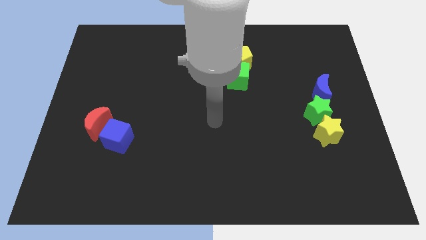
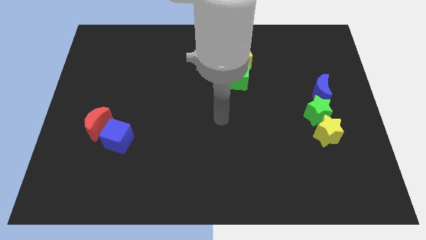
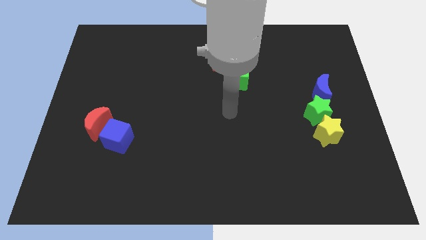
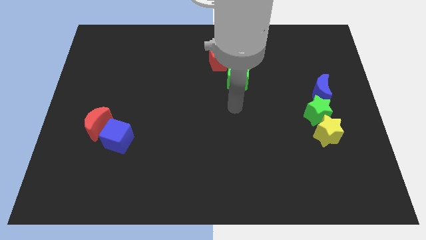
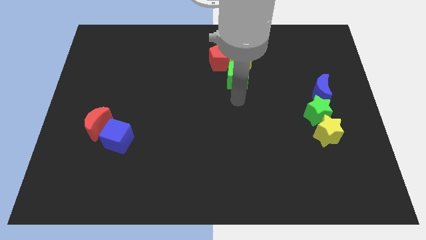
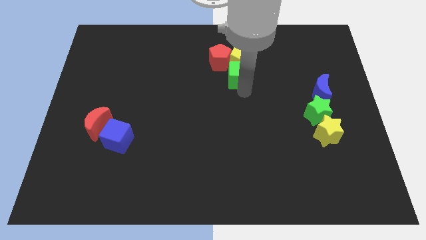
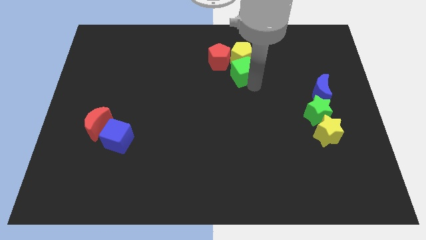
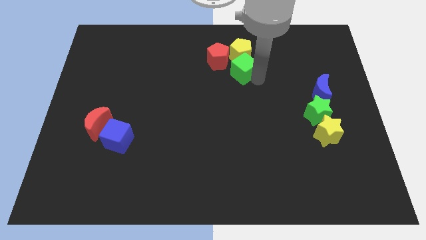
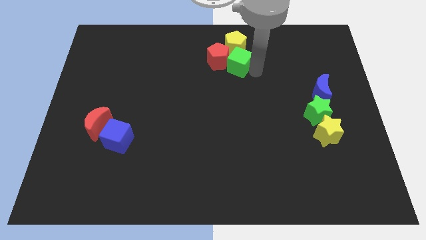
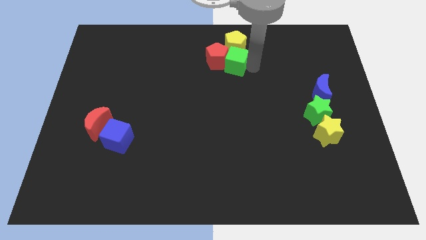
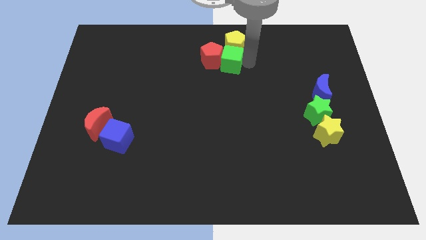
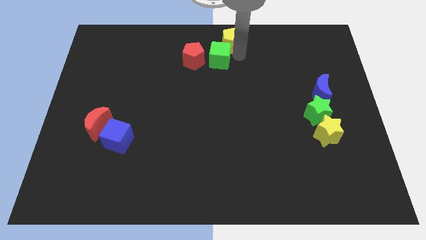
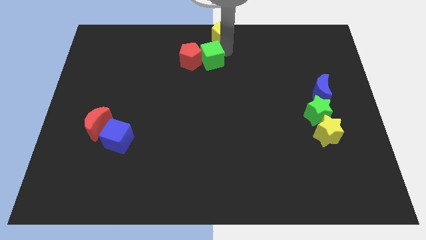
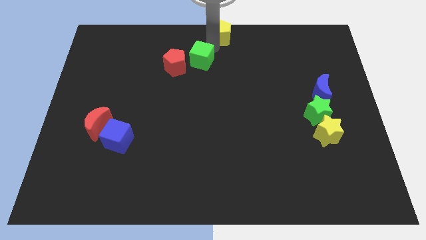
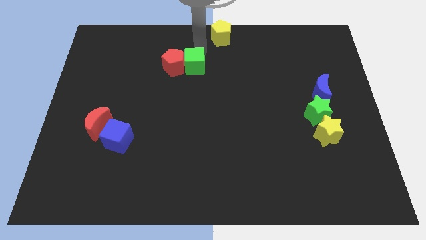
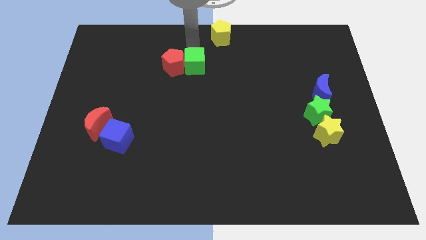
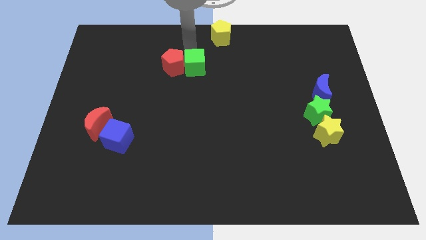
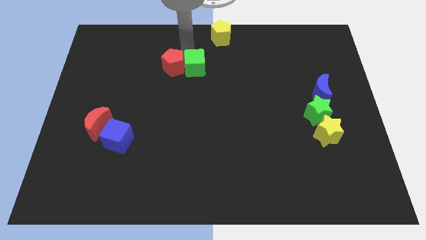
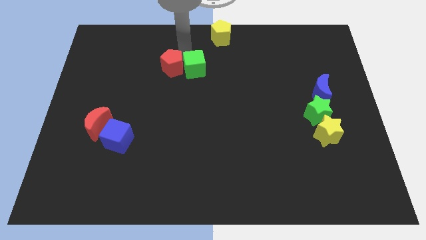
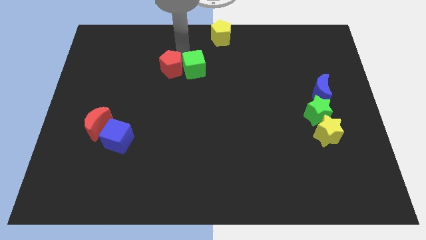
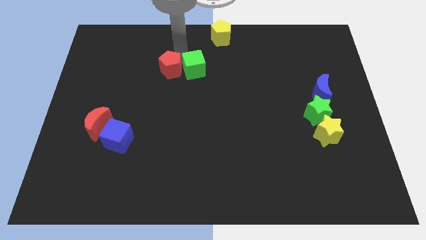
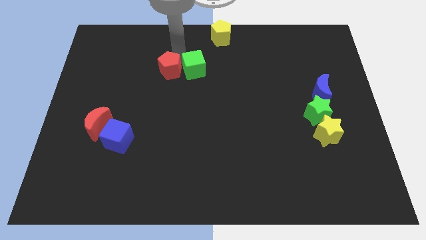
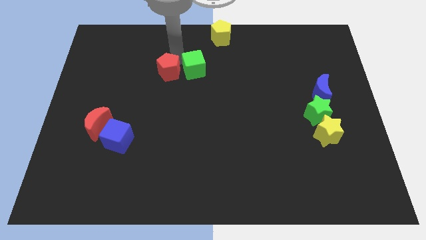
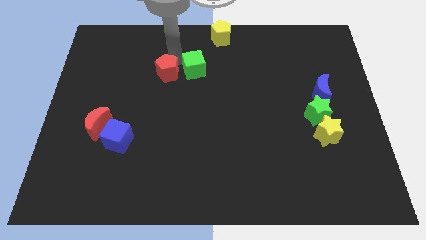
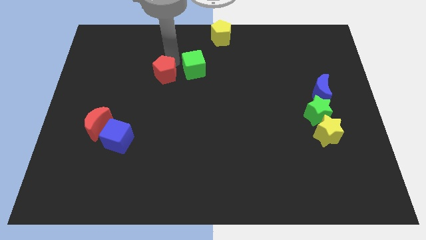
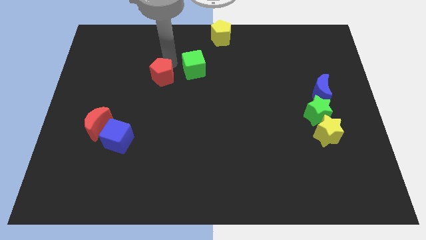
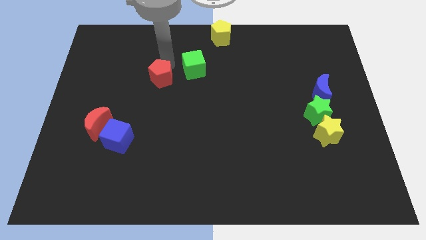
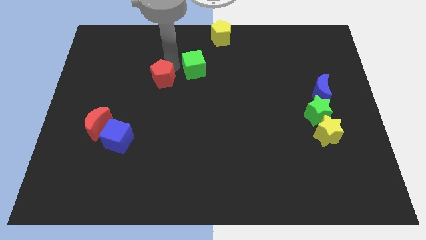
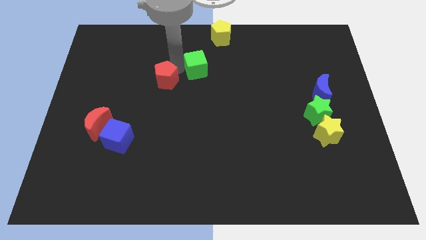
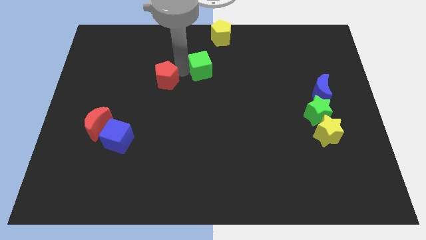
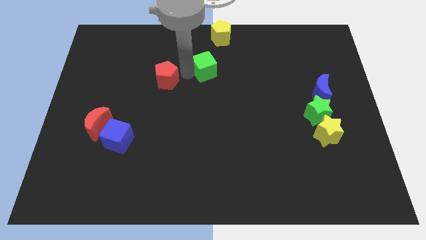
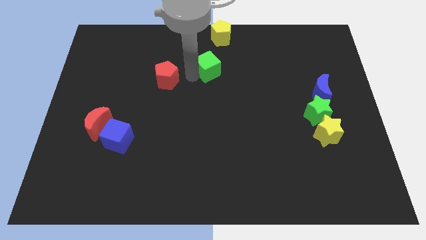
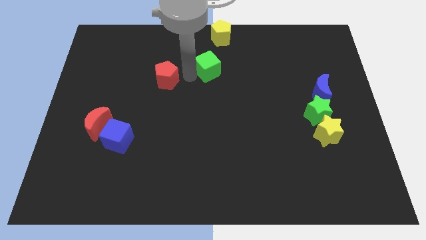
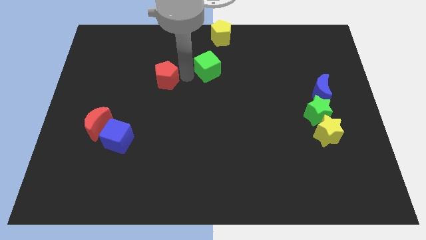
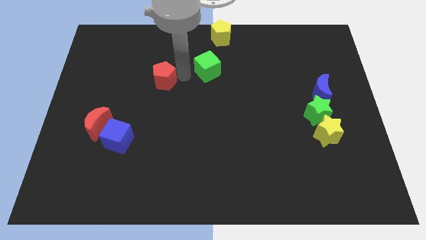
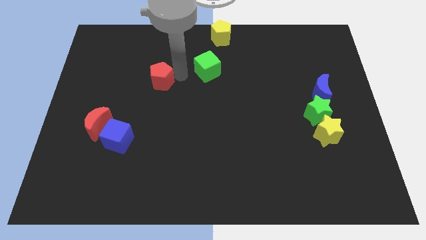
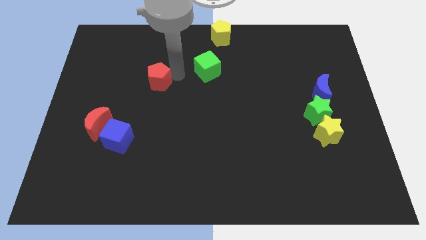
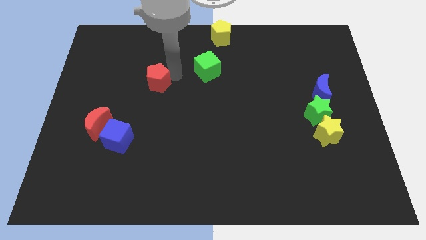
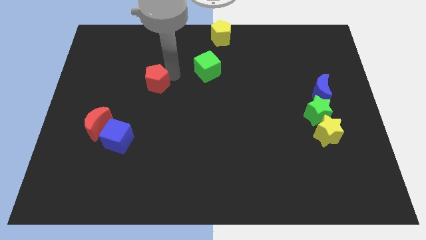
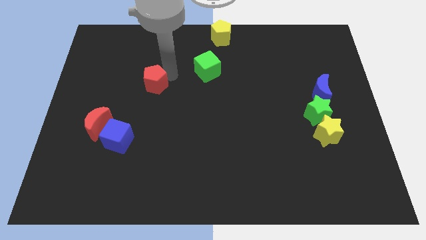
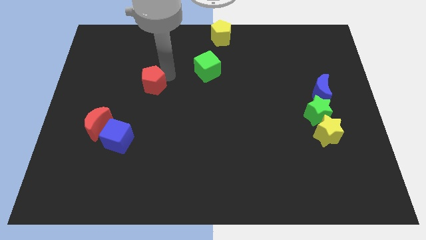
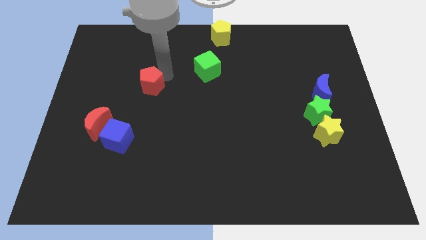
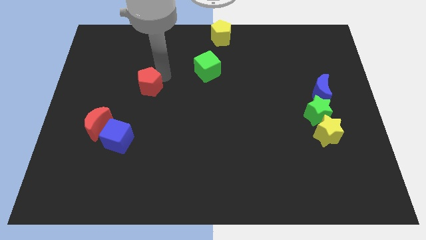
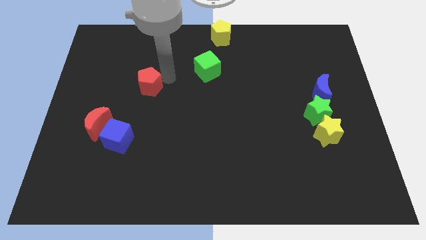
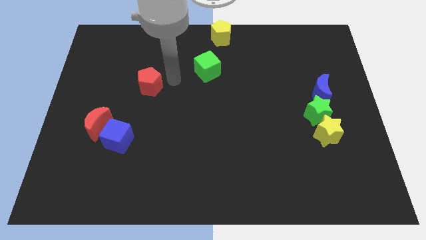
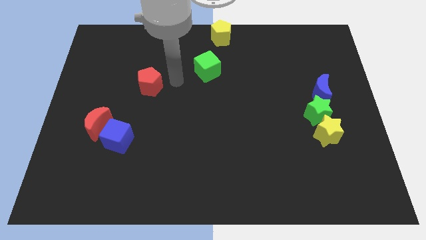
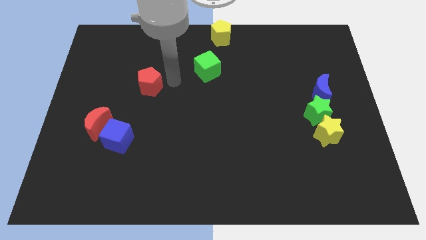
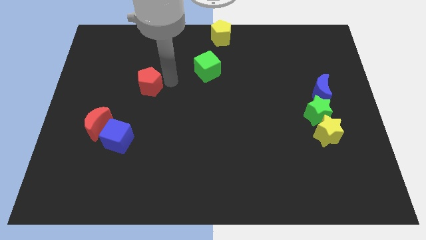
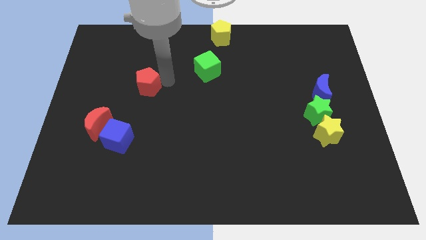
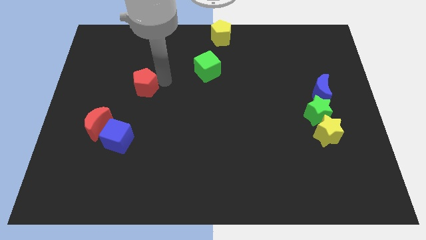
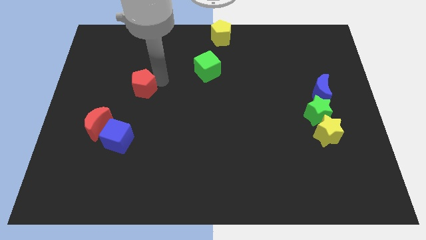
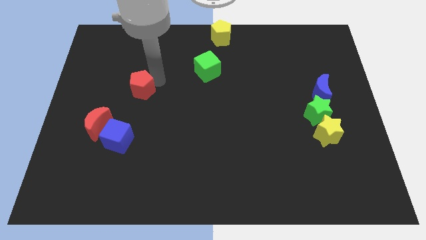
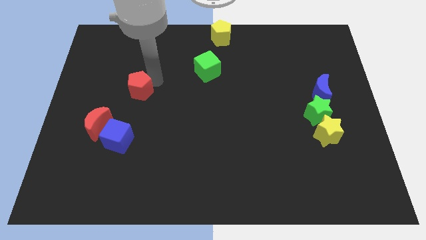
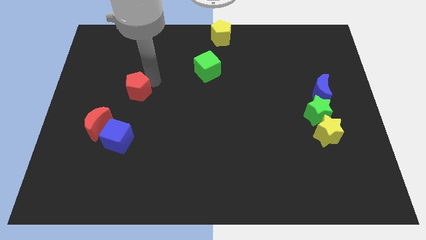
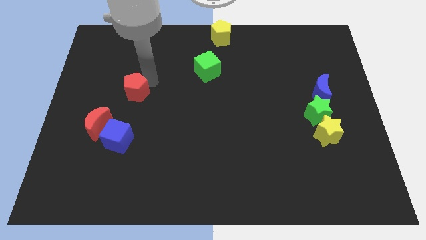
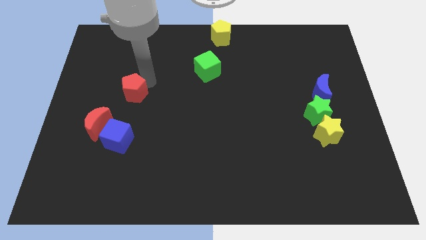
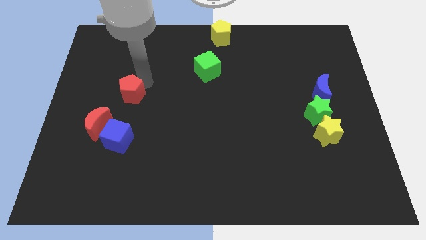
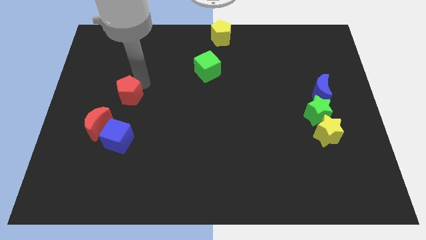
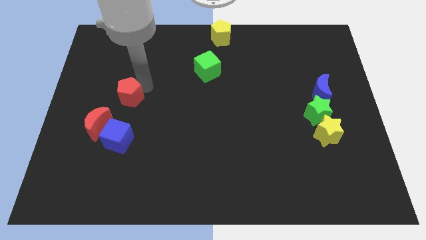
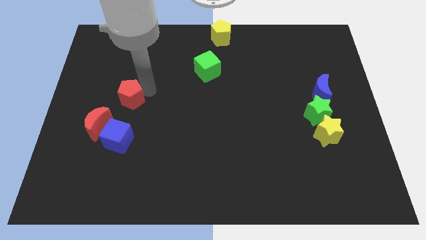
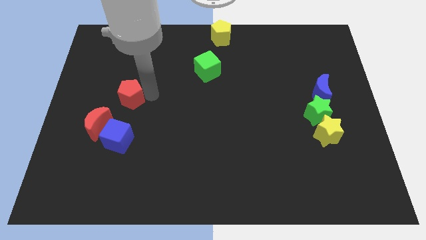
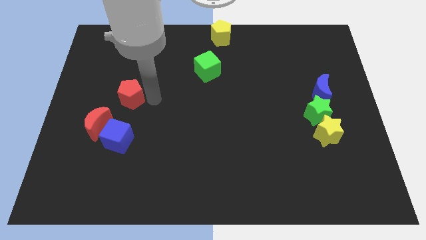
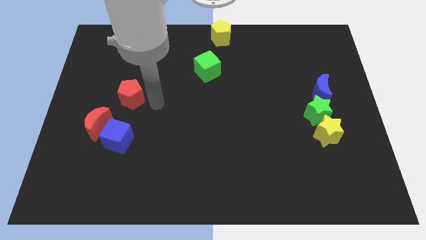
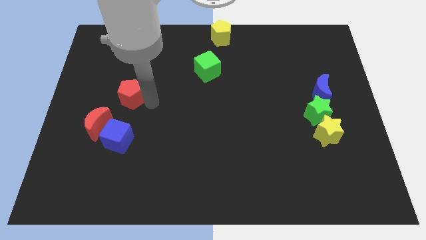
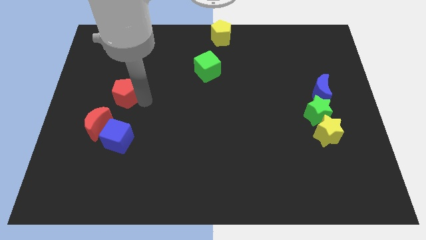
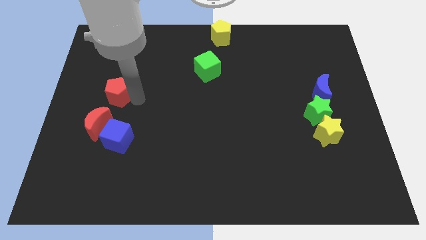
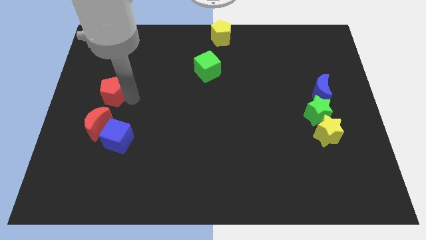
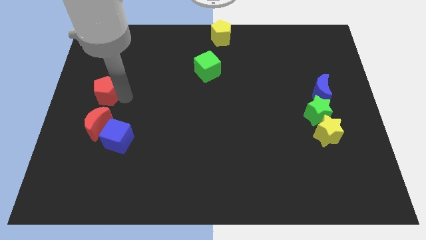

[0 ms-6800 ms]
slide the red pentagon to the left side
